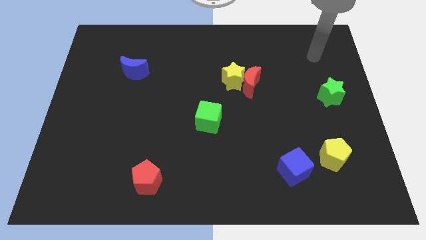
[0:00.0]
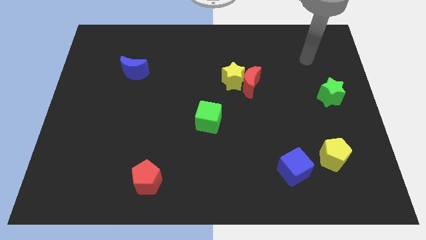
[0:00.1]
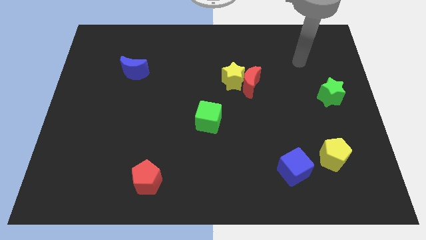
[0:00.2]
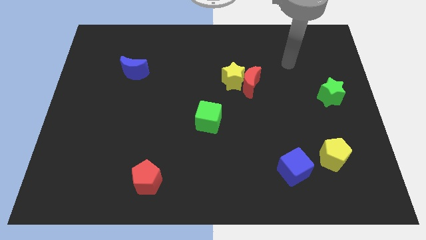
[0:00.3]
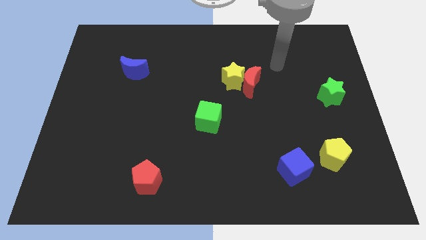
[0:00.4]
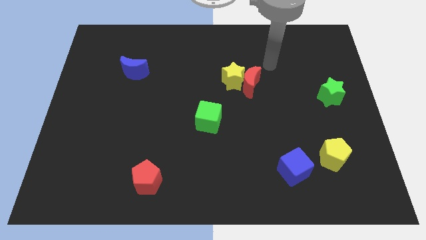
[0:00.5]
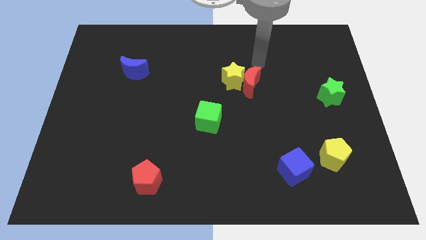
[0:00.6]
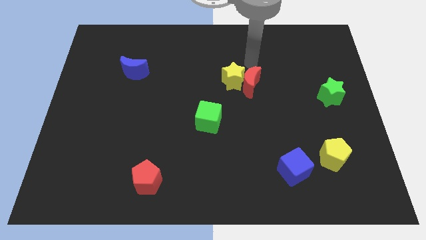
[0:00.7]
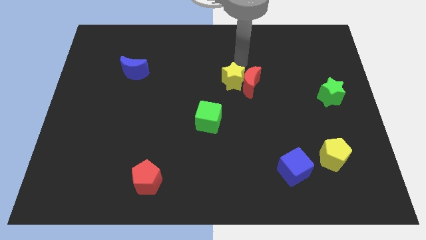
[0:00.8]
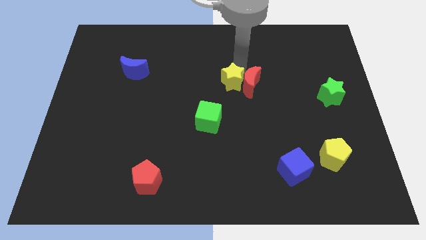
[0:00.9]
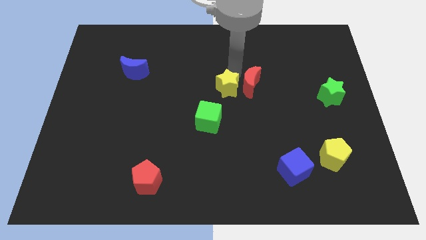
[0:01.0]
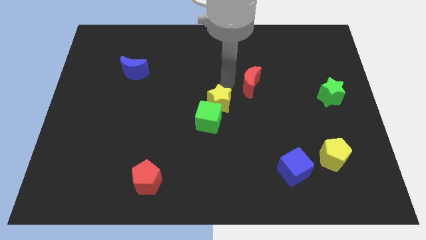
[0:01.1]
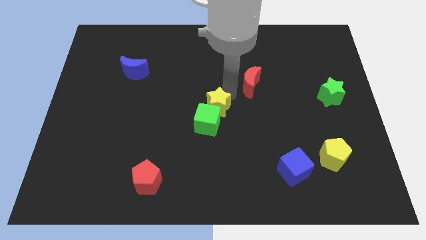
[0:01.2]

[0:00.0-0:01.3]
pull the red moon apart from the yellow star

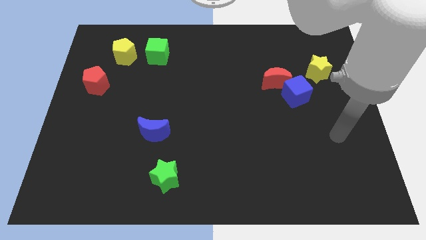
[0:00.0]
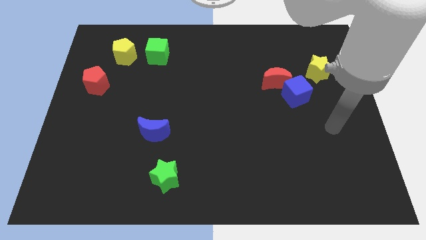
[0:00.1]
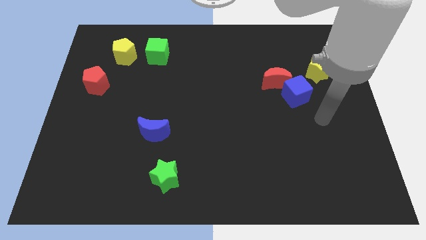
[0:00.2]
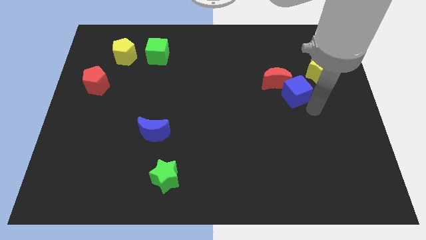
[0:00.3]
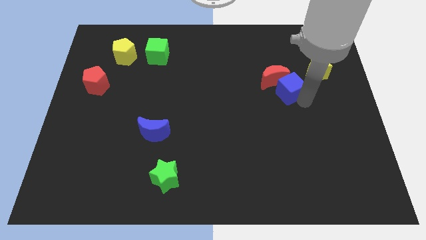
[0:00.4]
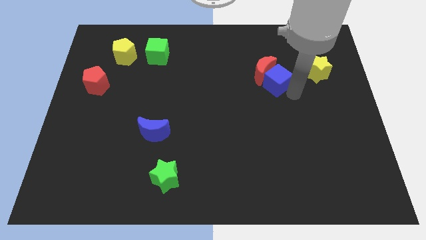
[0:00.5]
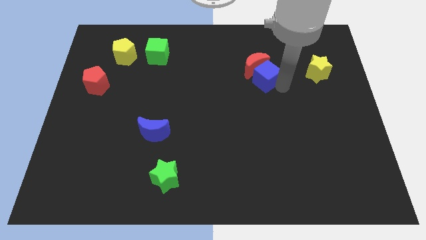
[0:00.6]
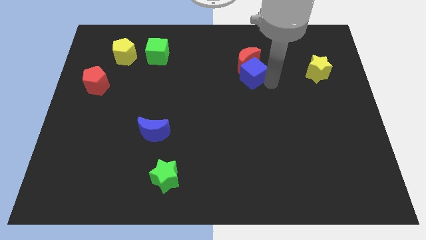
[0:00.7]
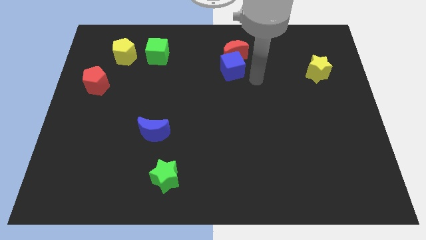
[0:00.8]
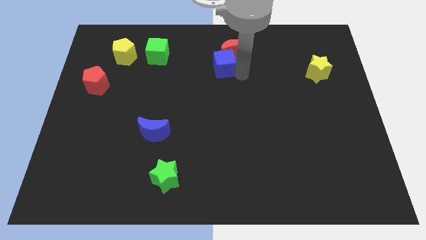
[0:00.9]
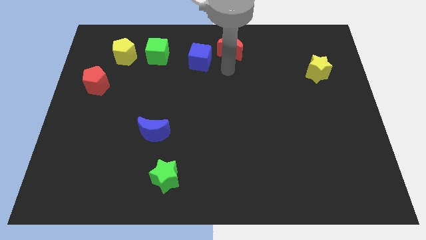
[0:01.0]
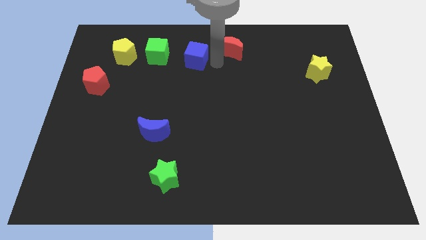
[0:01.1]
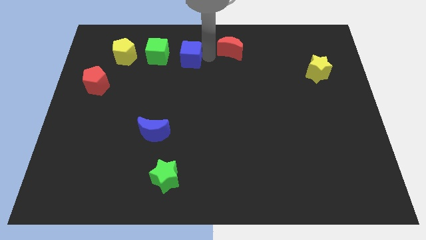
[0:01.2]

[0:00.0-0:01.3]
separate the red moon from the blue cube

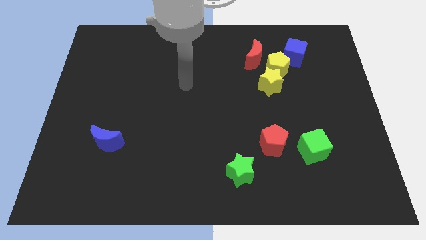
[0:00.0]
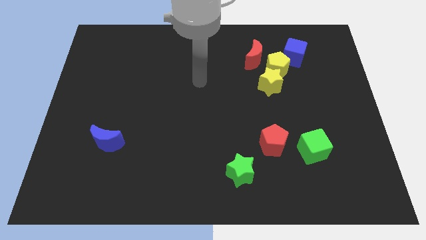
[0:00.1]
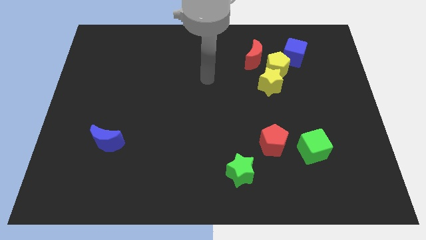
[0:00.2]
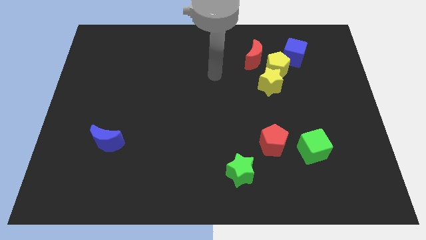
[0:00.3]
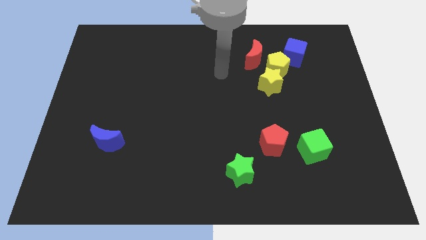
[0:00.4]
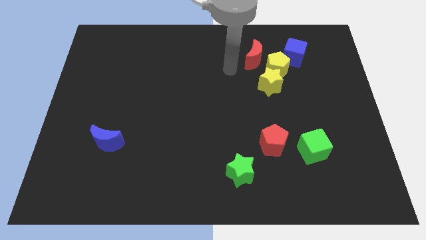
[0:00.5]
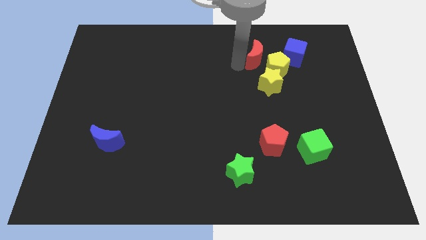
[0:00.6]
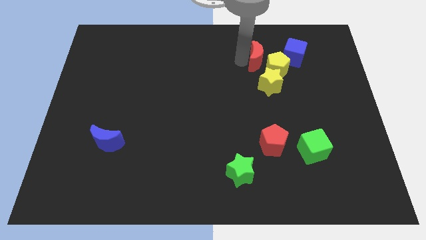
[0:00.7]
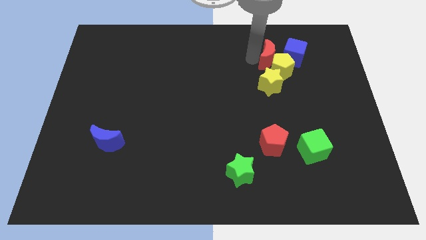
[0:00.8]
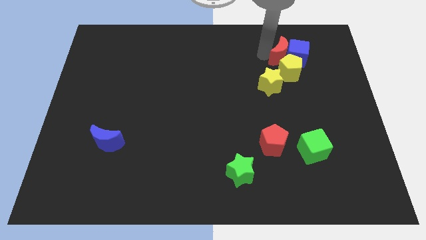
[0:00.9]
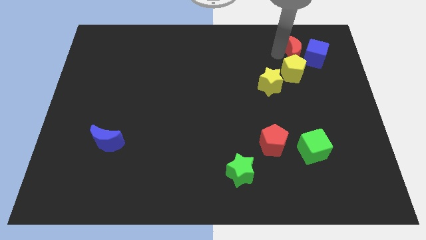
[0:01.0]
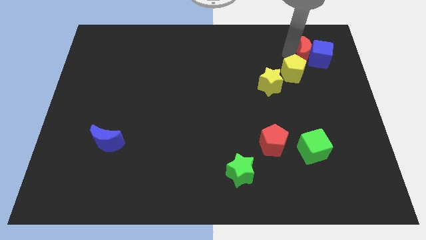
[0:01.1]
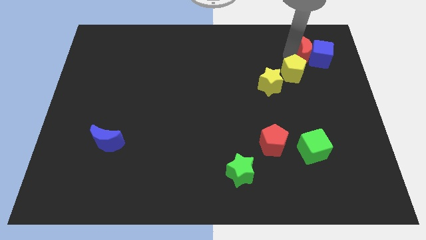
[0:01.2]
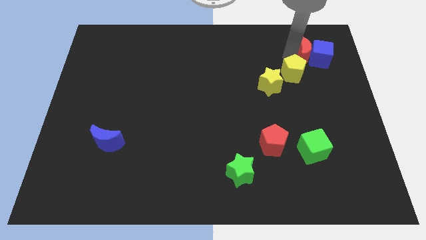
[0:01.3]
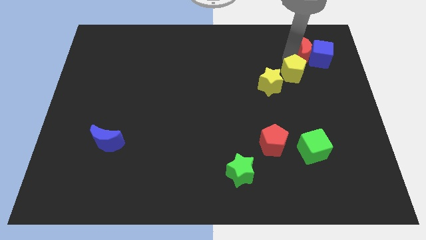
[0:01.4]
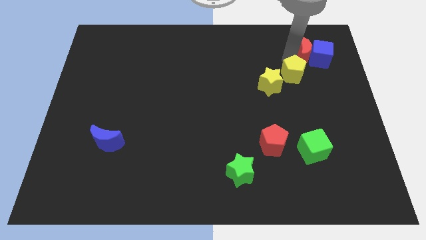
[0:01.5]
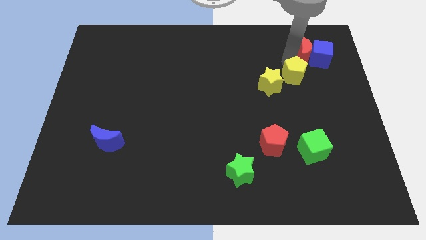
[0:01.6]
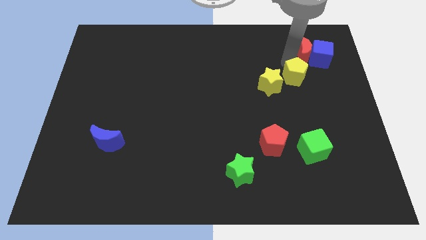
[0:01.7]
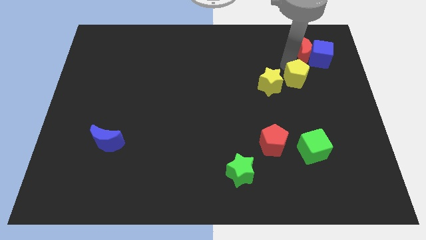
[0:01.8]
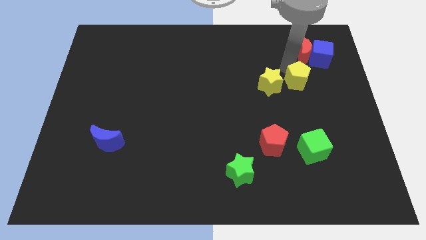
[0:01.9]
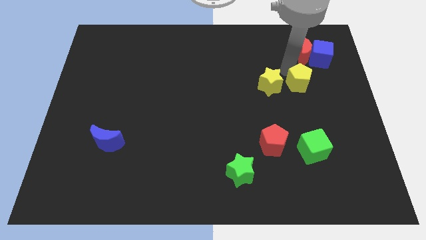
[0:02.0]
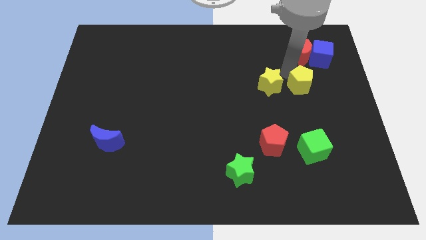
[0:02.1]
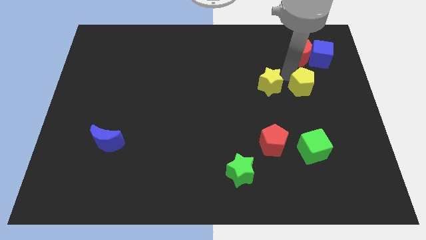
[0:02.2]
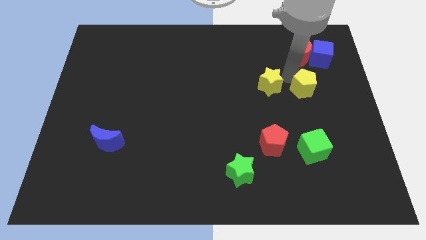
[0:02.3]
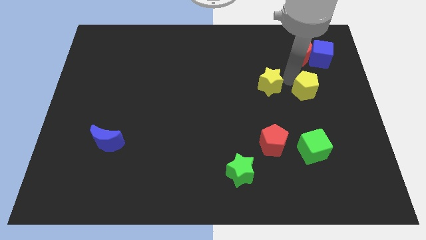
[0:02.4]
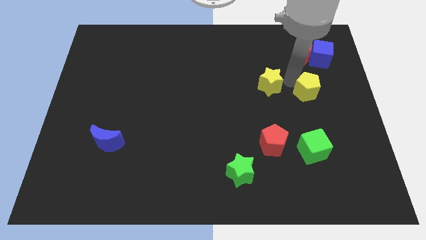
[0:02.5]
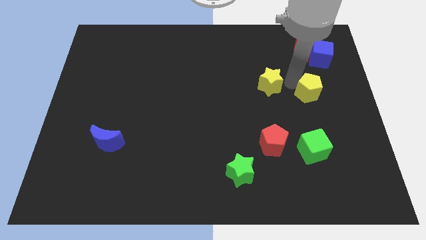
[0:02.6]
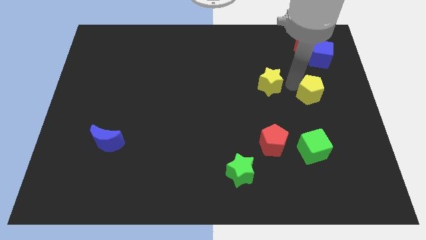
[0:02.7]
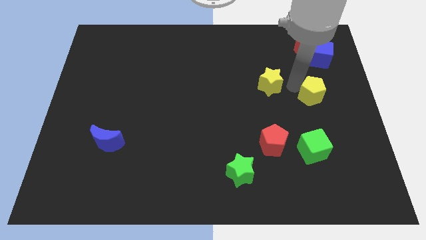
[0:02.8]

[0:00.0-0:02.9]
move the yellow pentagon away from the clump

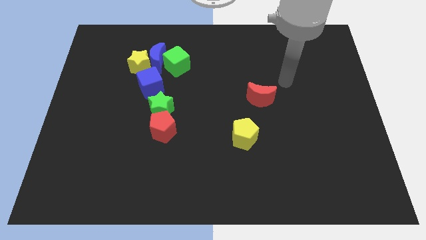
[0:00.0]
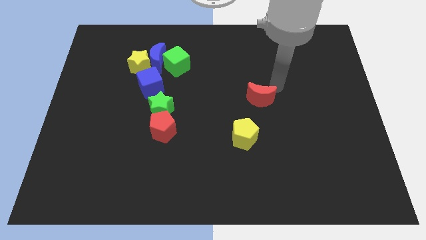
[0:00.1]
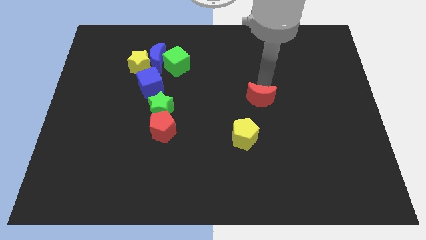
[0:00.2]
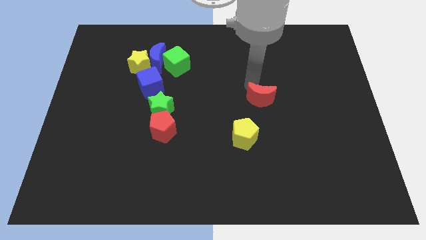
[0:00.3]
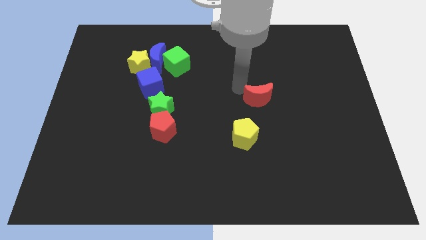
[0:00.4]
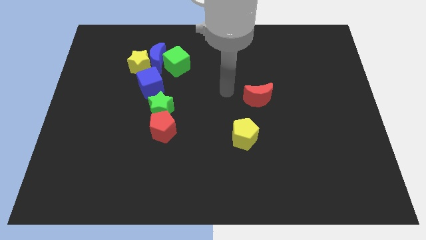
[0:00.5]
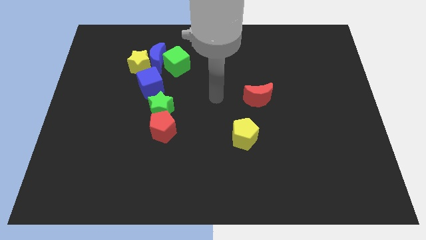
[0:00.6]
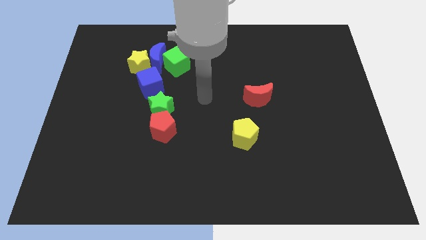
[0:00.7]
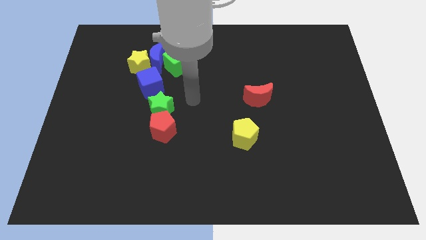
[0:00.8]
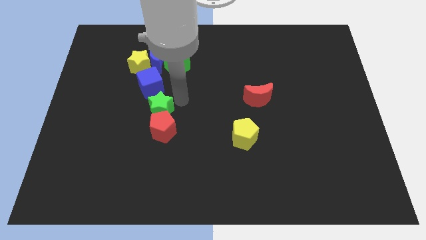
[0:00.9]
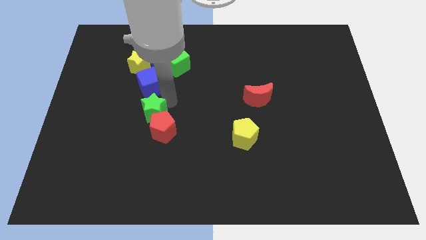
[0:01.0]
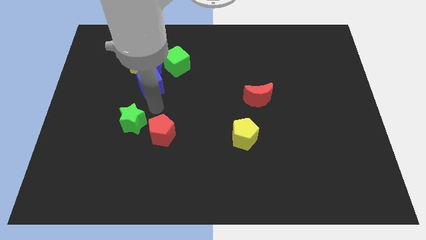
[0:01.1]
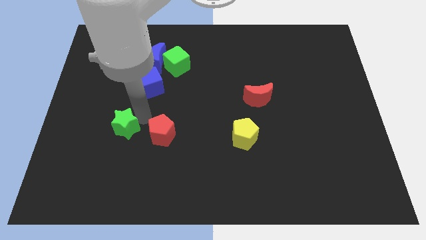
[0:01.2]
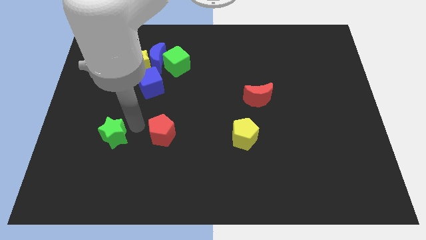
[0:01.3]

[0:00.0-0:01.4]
move the red pentagon away from the green star

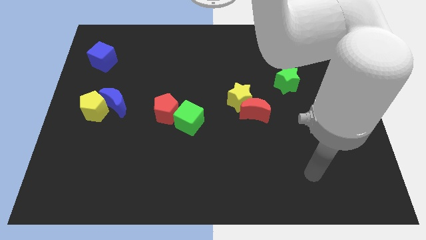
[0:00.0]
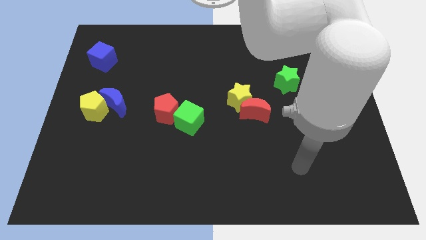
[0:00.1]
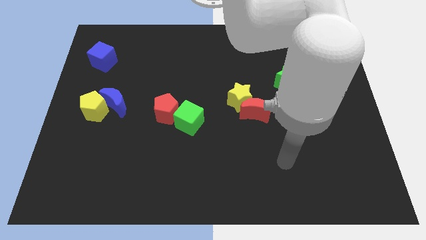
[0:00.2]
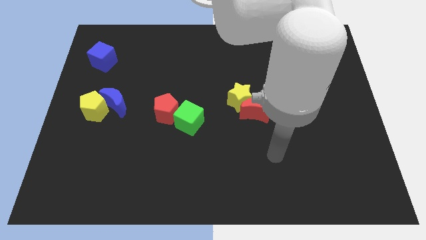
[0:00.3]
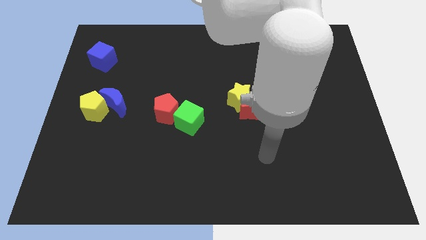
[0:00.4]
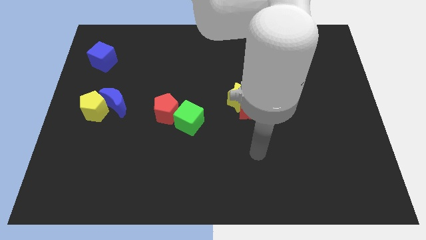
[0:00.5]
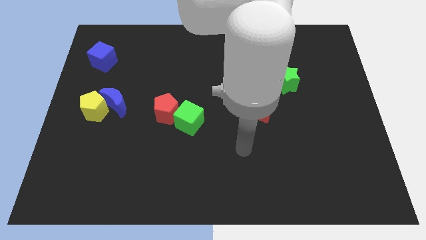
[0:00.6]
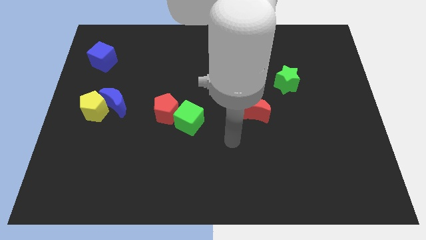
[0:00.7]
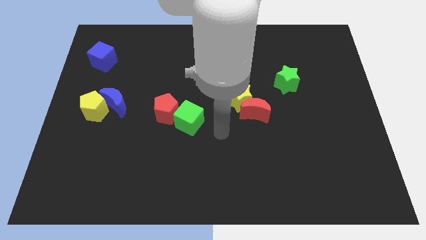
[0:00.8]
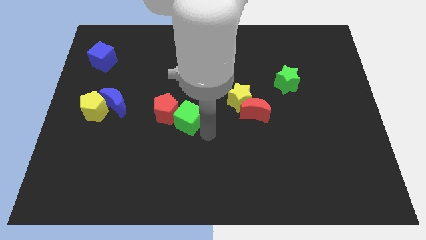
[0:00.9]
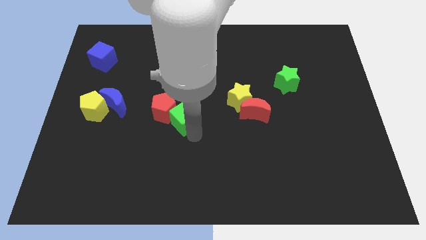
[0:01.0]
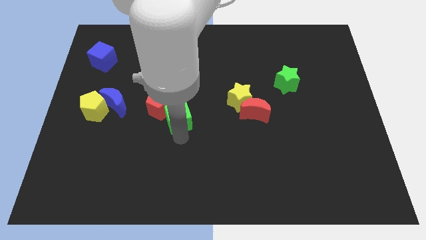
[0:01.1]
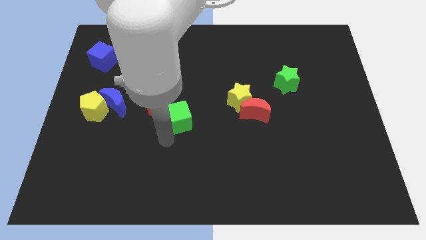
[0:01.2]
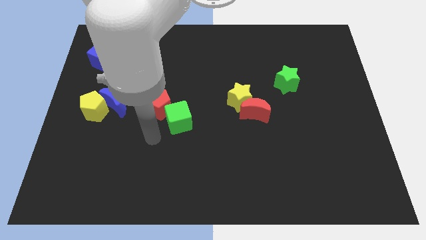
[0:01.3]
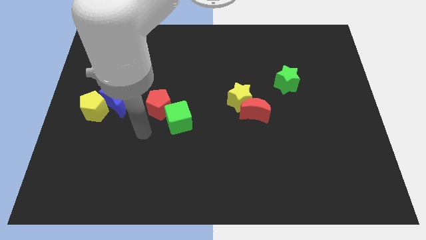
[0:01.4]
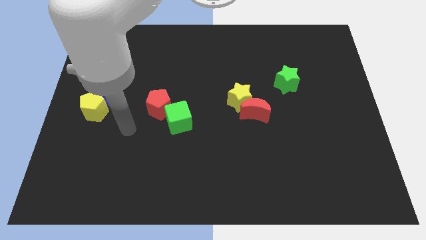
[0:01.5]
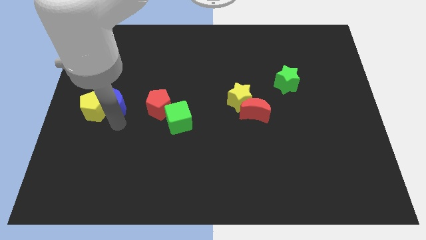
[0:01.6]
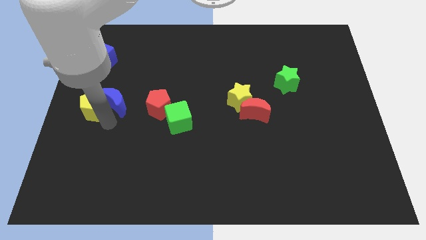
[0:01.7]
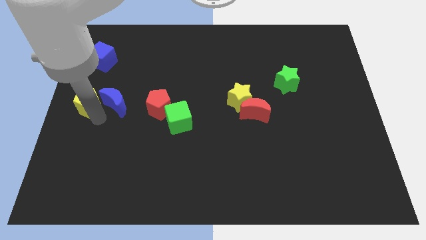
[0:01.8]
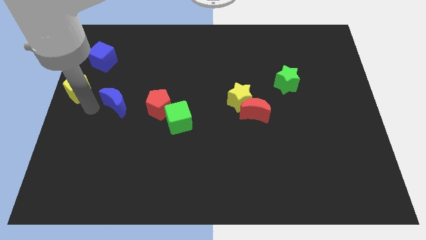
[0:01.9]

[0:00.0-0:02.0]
move the blue moon away from the yellow pentagon

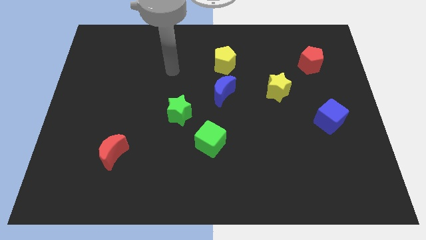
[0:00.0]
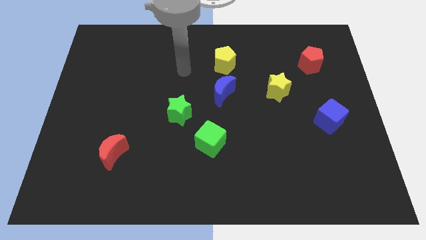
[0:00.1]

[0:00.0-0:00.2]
pull the blue moon apart from the yellow pentagon

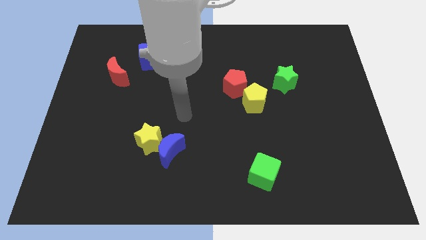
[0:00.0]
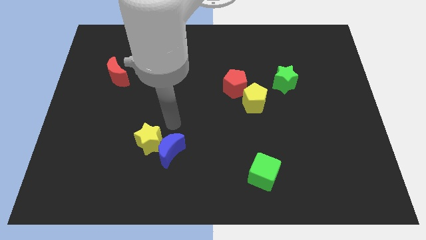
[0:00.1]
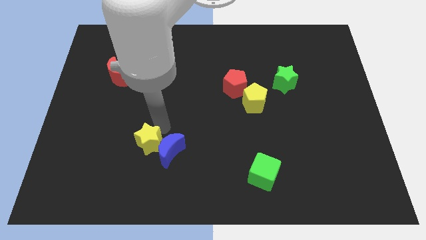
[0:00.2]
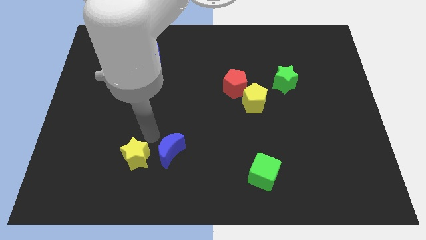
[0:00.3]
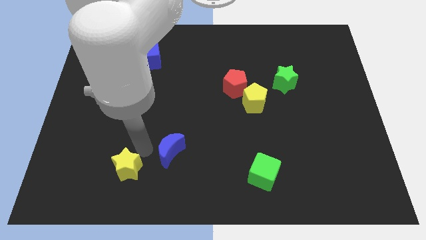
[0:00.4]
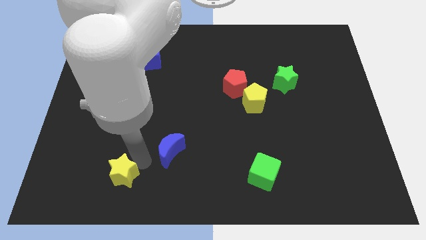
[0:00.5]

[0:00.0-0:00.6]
move the blue moon away from the yellow star
